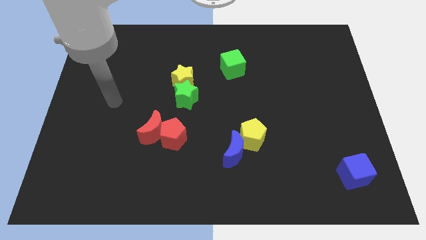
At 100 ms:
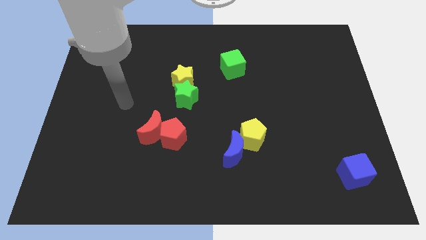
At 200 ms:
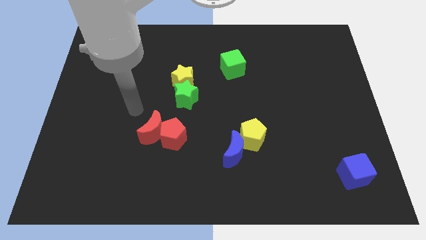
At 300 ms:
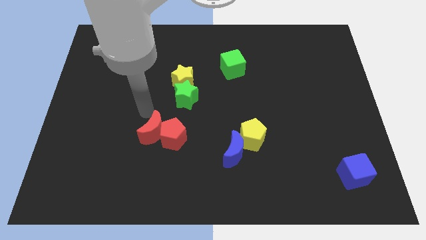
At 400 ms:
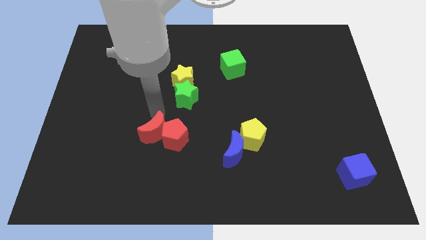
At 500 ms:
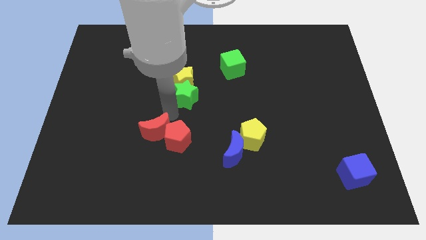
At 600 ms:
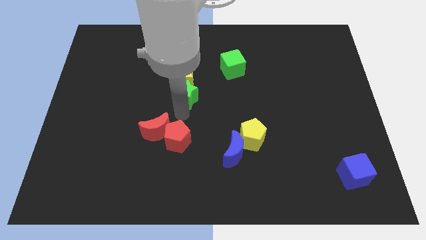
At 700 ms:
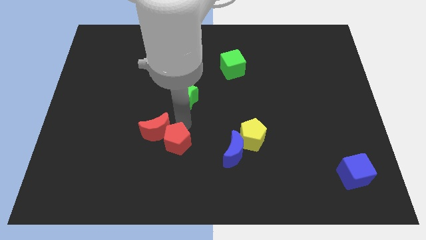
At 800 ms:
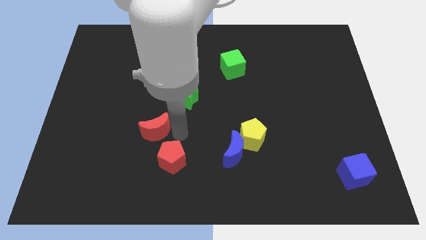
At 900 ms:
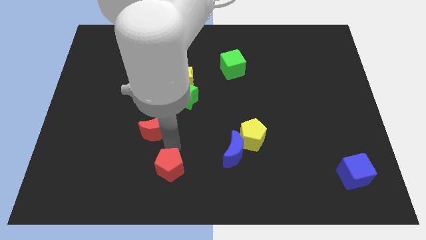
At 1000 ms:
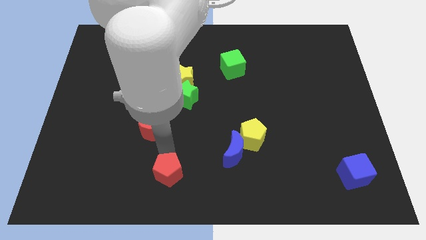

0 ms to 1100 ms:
move the red moon away from the red pentagon

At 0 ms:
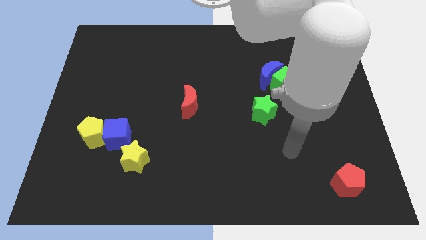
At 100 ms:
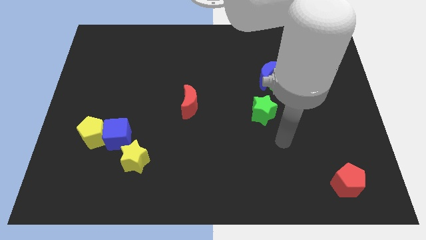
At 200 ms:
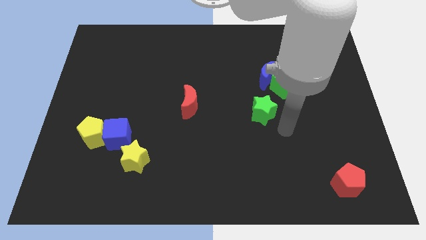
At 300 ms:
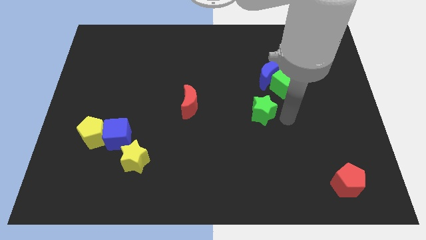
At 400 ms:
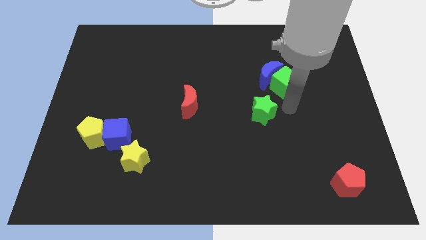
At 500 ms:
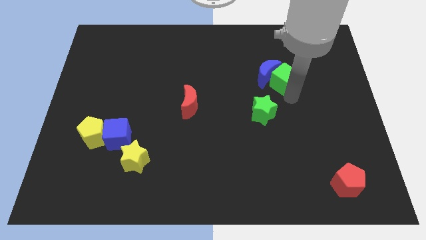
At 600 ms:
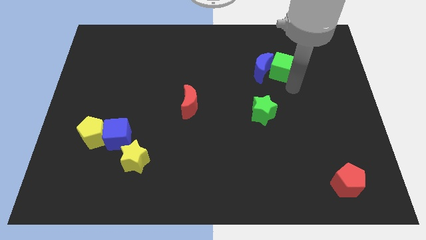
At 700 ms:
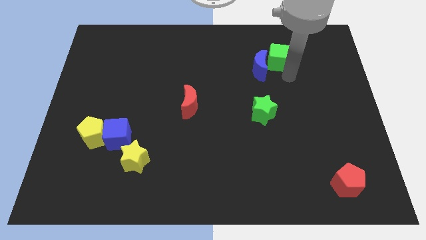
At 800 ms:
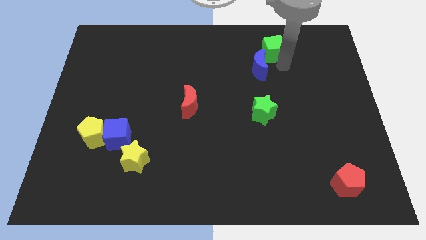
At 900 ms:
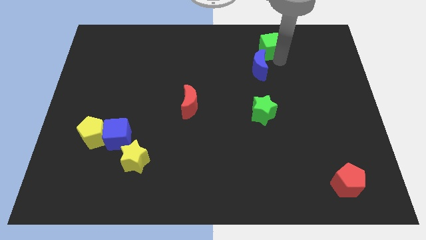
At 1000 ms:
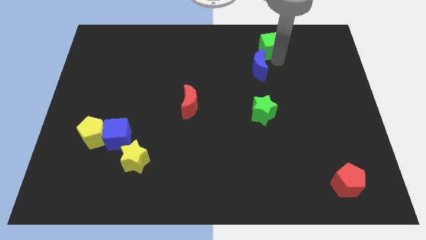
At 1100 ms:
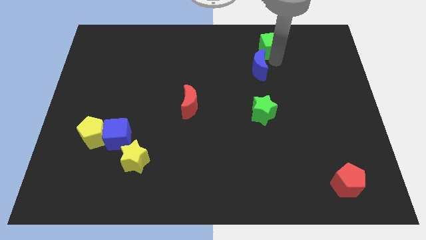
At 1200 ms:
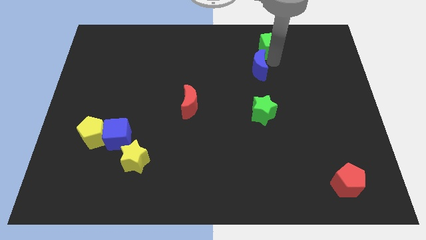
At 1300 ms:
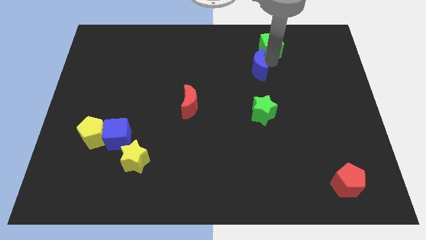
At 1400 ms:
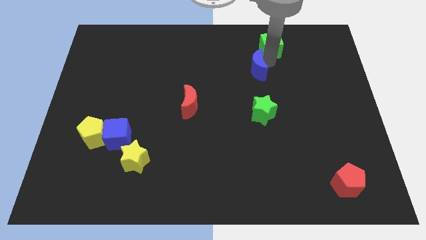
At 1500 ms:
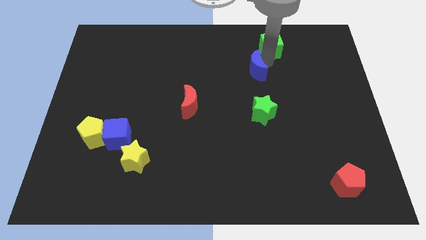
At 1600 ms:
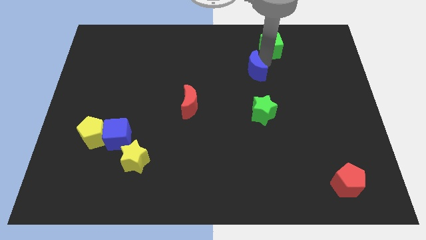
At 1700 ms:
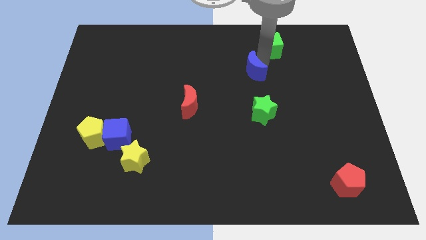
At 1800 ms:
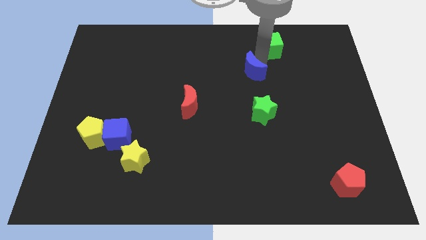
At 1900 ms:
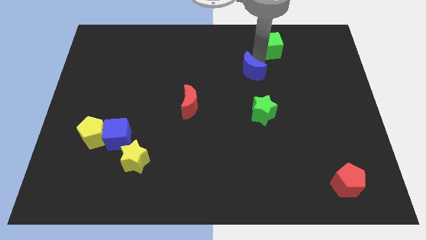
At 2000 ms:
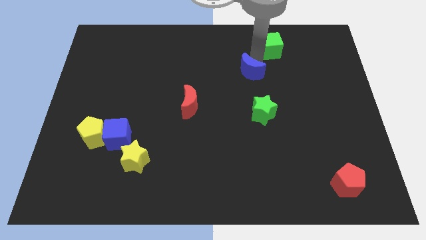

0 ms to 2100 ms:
separate the blue moon from the green cube

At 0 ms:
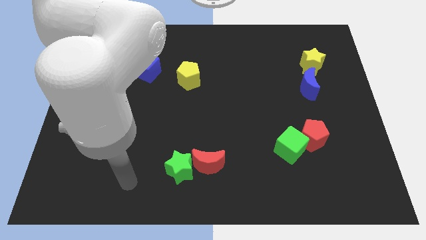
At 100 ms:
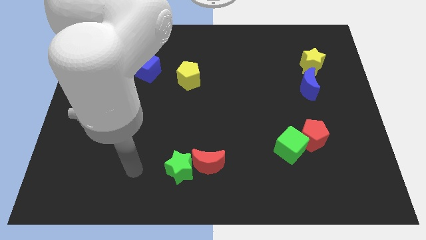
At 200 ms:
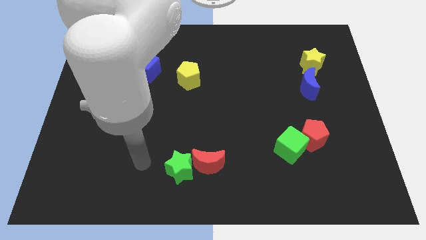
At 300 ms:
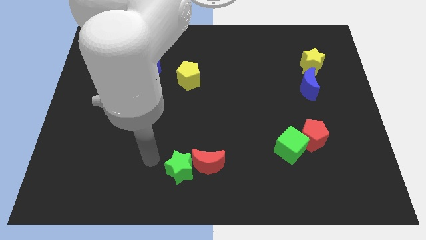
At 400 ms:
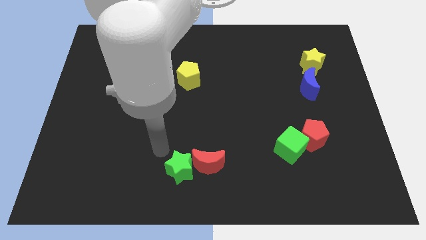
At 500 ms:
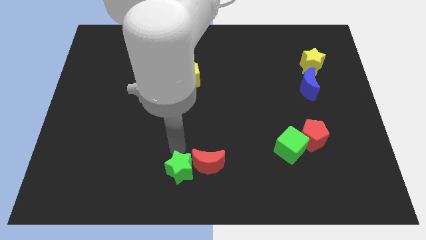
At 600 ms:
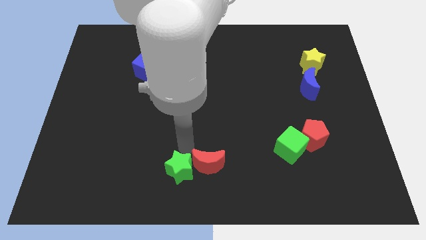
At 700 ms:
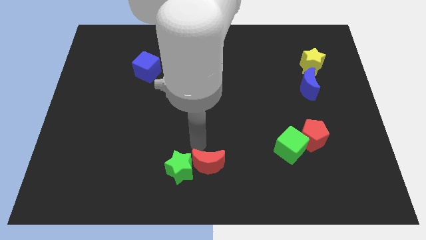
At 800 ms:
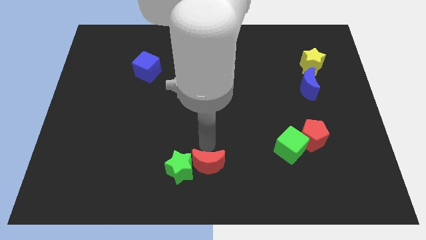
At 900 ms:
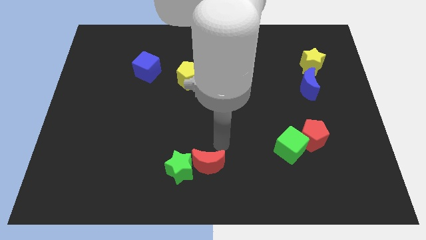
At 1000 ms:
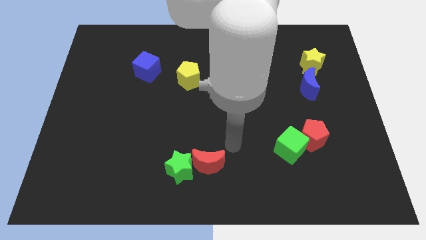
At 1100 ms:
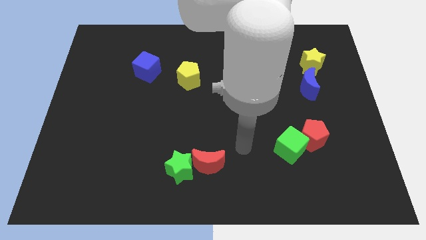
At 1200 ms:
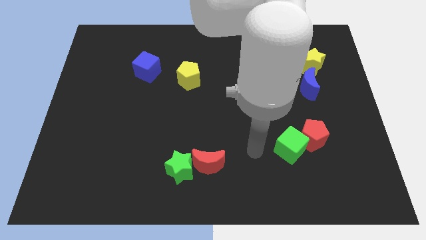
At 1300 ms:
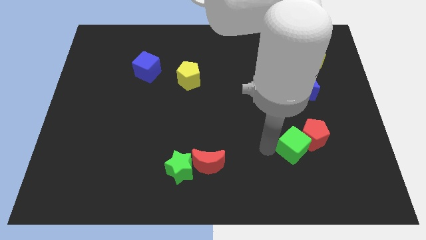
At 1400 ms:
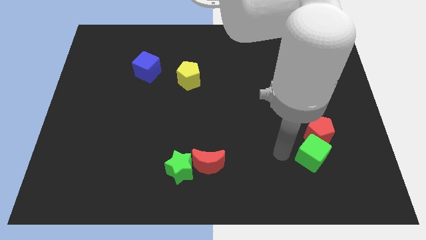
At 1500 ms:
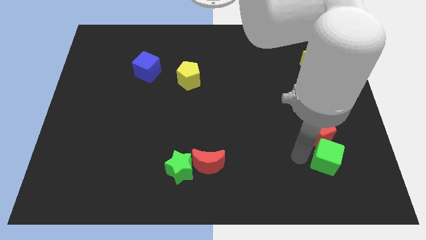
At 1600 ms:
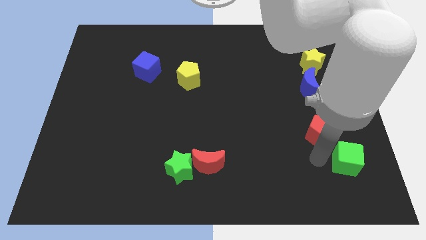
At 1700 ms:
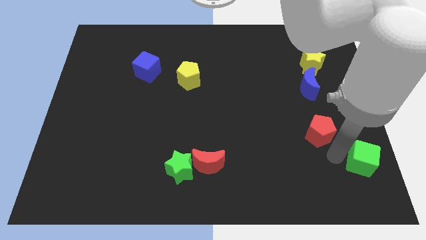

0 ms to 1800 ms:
separate the red pentagon from the green cube

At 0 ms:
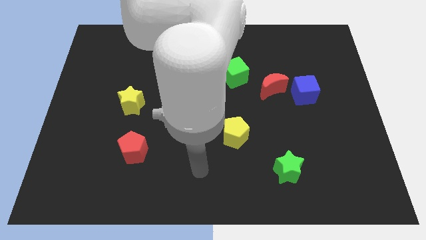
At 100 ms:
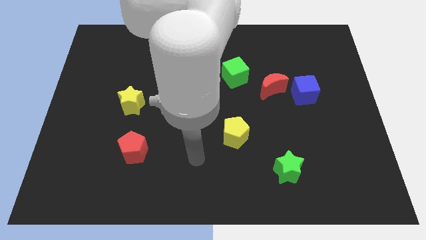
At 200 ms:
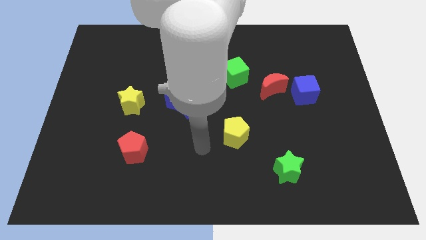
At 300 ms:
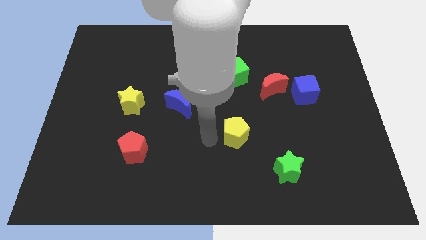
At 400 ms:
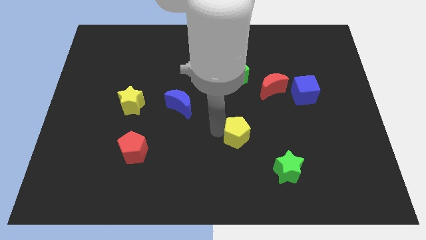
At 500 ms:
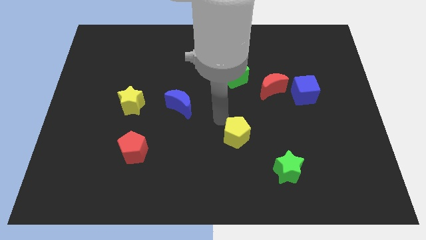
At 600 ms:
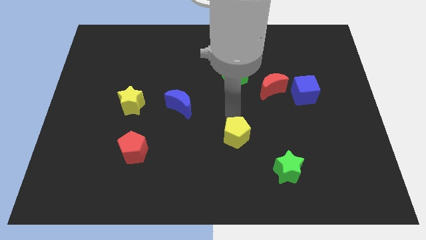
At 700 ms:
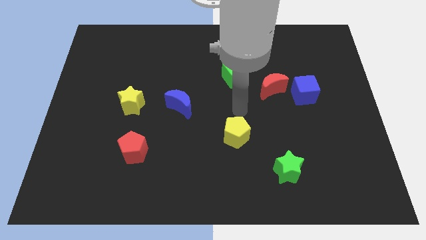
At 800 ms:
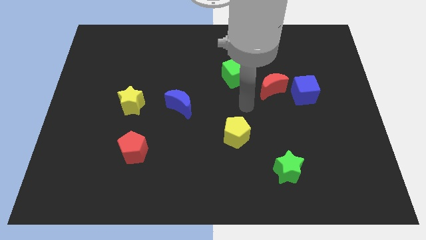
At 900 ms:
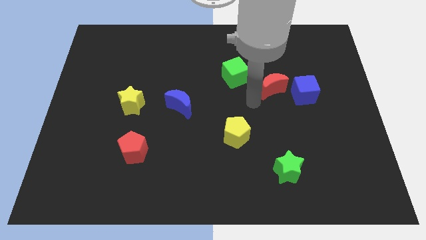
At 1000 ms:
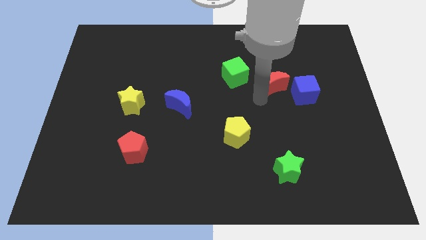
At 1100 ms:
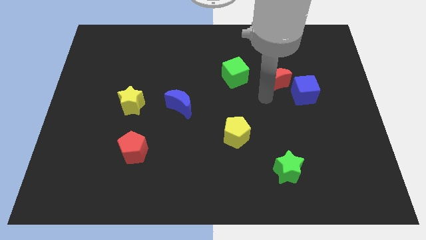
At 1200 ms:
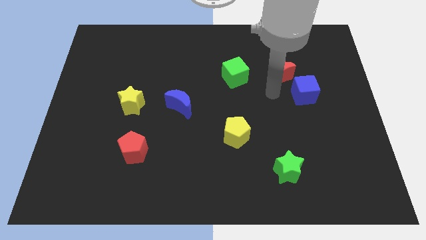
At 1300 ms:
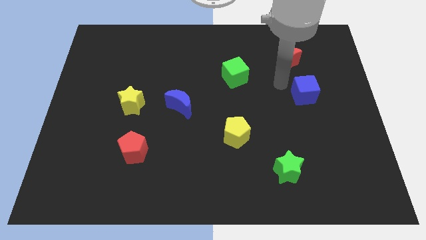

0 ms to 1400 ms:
pull the blue cube apart from the red moon

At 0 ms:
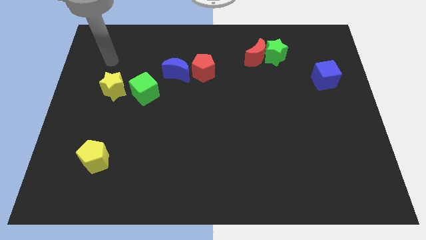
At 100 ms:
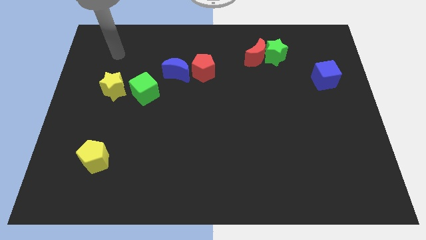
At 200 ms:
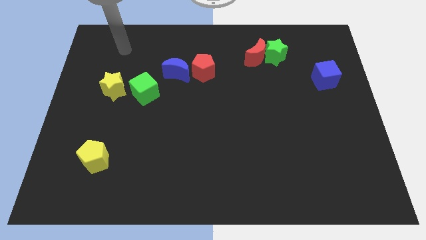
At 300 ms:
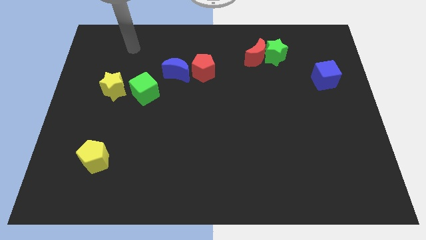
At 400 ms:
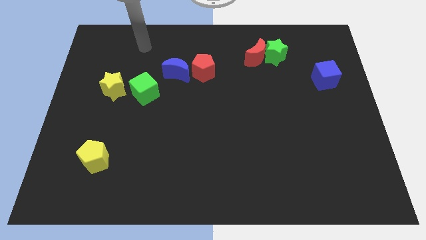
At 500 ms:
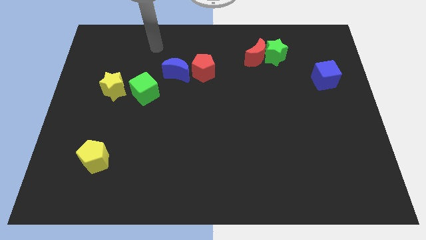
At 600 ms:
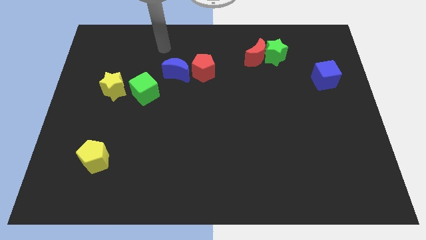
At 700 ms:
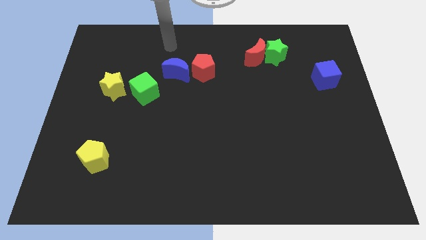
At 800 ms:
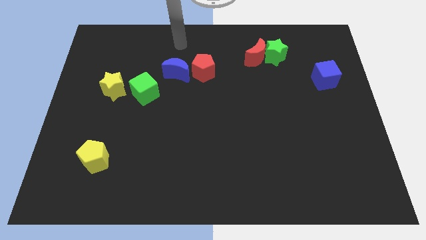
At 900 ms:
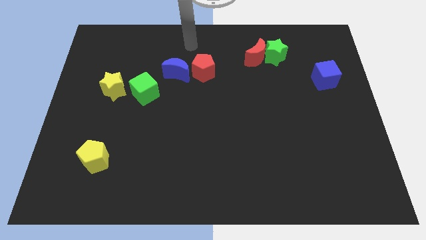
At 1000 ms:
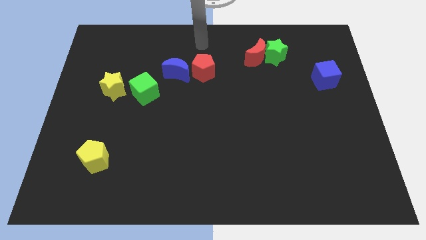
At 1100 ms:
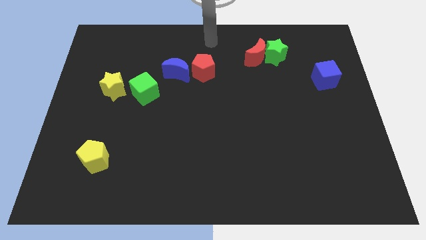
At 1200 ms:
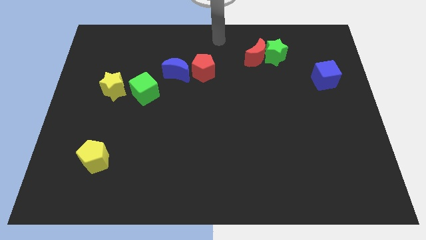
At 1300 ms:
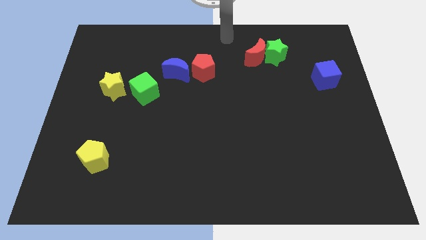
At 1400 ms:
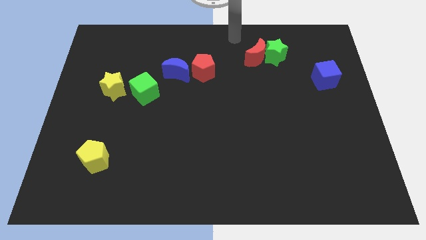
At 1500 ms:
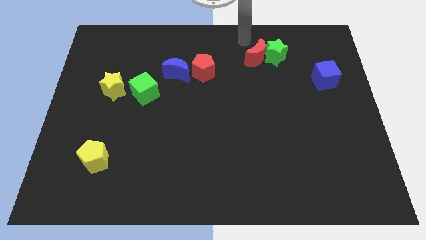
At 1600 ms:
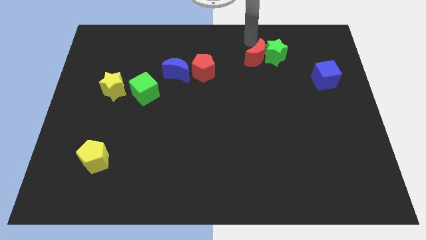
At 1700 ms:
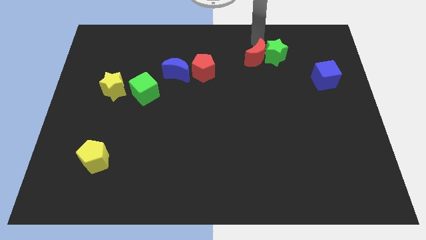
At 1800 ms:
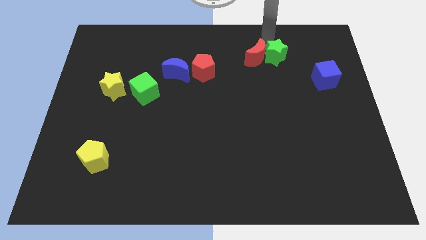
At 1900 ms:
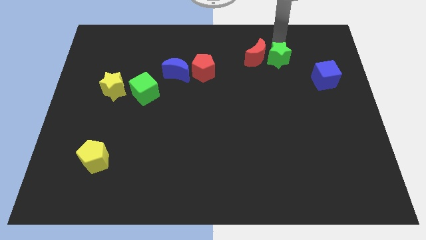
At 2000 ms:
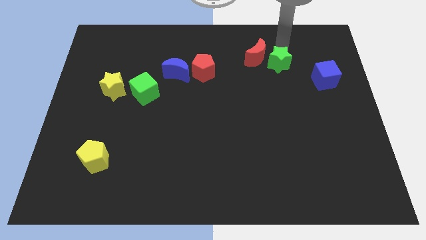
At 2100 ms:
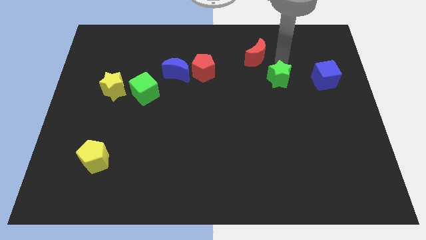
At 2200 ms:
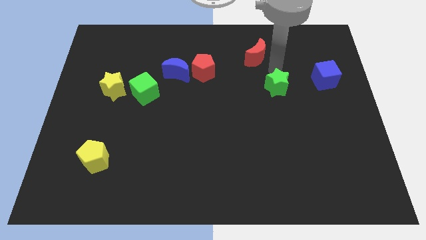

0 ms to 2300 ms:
pull the red moon apart from the green star

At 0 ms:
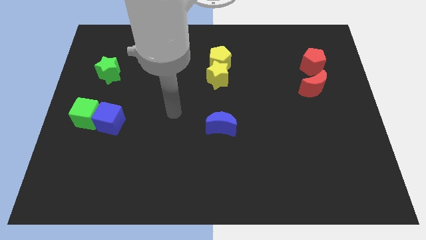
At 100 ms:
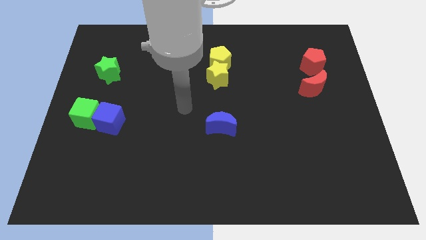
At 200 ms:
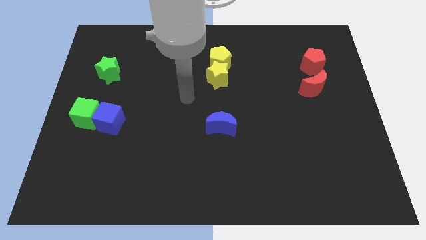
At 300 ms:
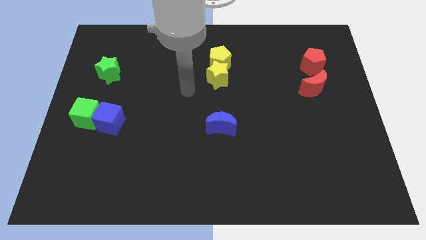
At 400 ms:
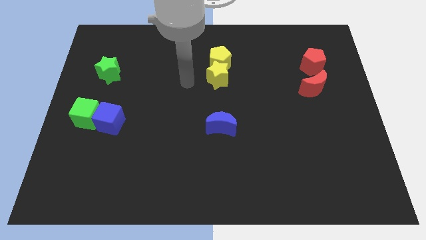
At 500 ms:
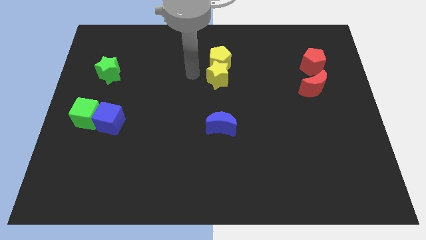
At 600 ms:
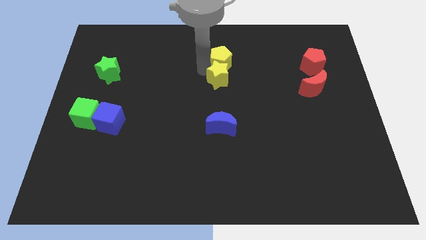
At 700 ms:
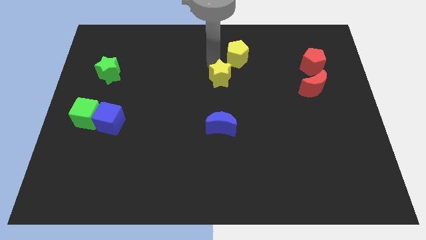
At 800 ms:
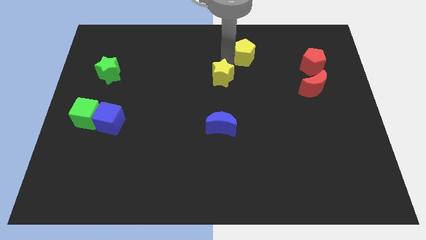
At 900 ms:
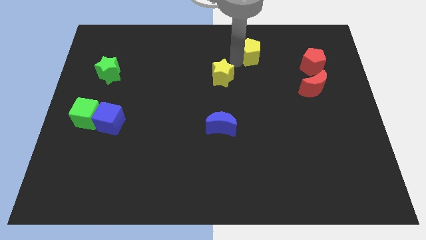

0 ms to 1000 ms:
pull the yellow star apart from the yellow pentagon
